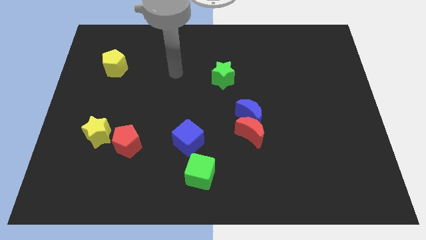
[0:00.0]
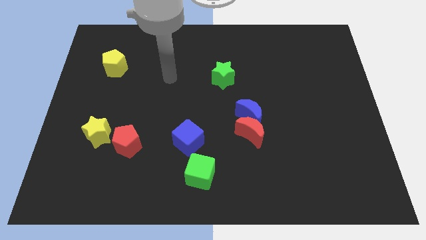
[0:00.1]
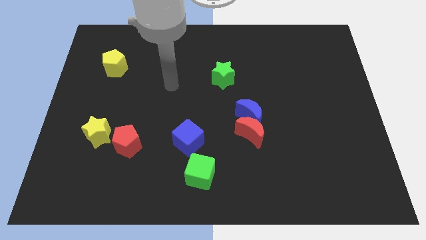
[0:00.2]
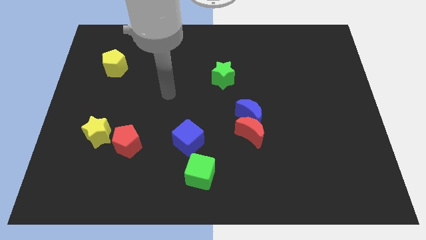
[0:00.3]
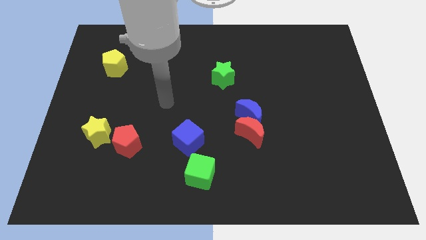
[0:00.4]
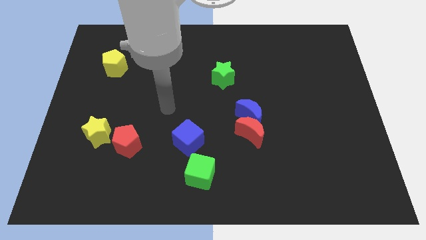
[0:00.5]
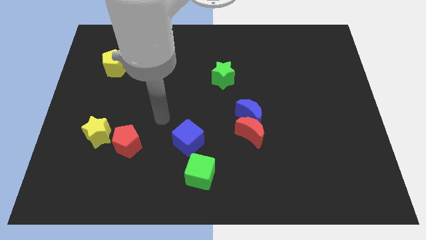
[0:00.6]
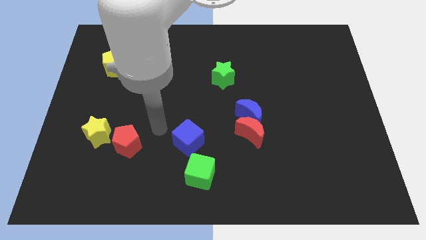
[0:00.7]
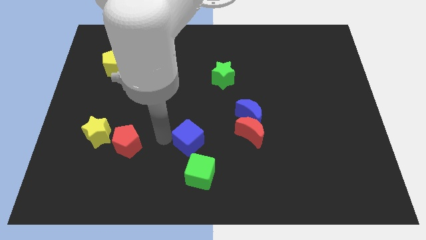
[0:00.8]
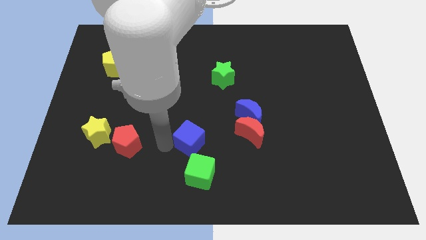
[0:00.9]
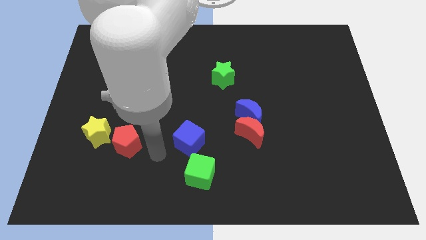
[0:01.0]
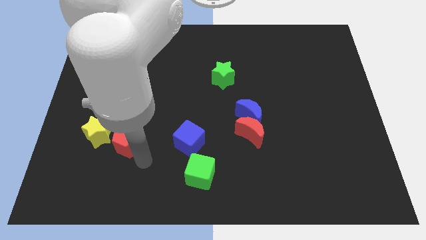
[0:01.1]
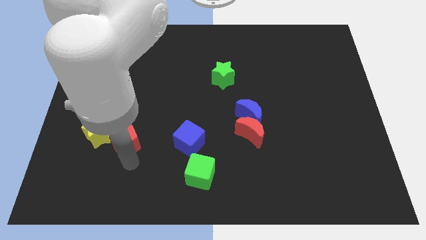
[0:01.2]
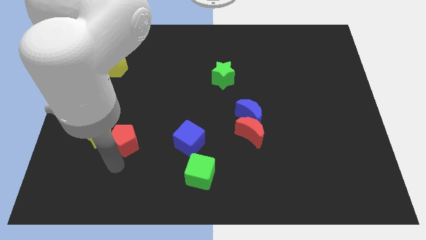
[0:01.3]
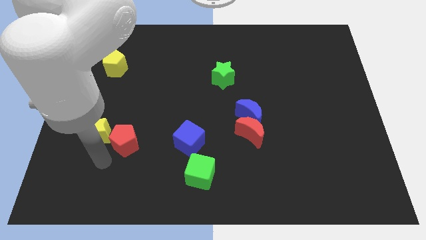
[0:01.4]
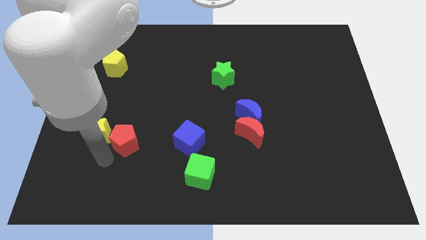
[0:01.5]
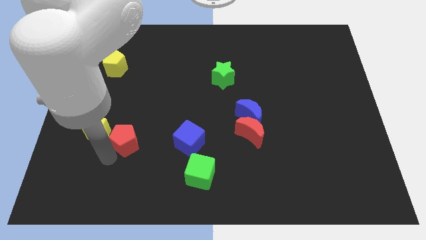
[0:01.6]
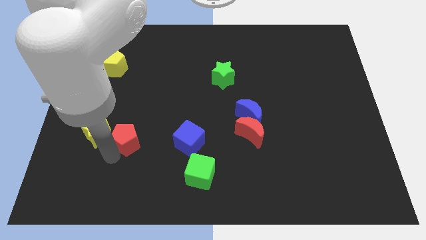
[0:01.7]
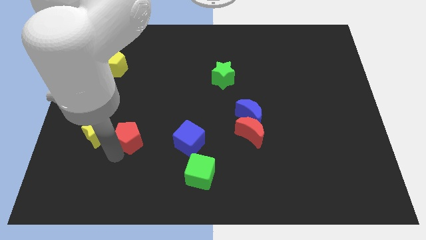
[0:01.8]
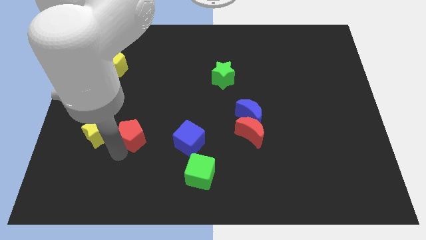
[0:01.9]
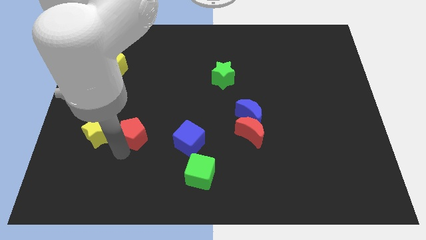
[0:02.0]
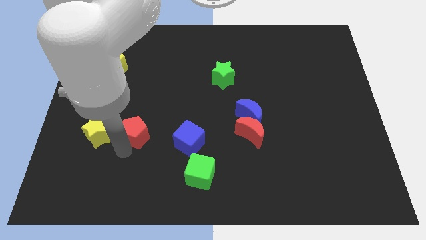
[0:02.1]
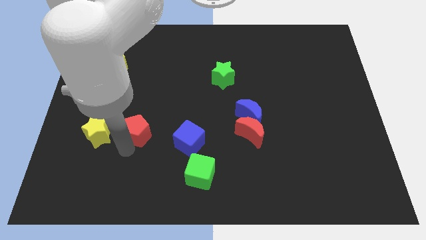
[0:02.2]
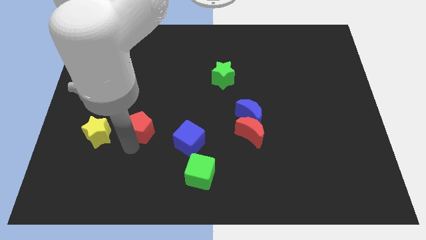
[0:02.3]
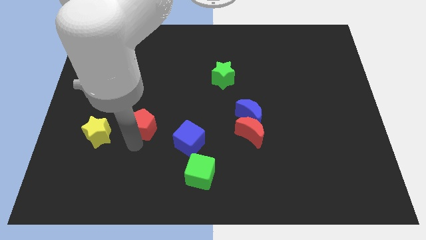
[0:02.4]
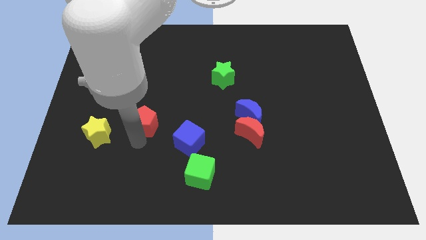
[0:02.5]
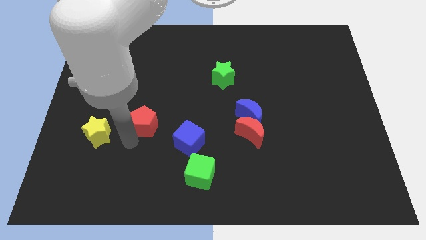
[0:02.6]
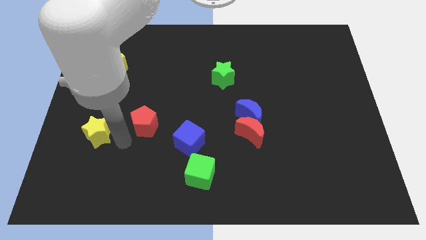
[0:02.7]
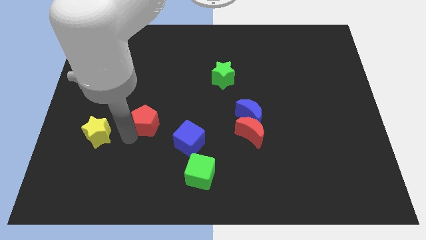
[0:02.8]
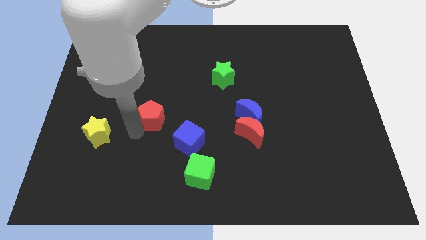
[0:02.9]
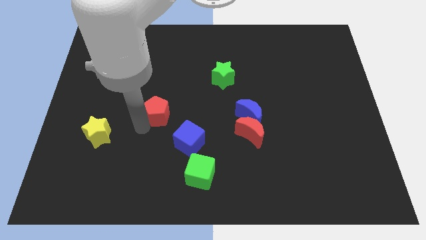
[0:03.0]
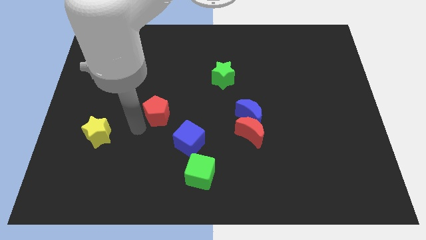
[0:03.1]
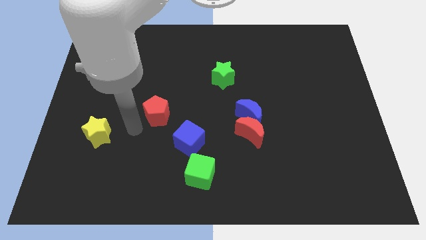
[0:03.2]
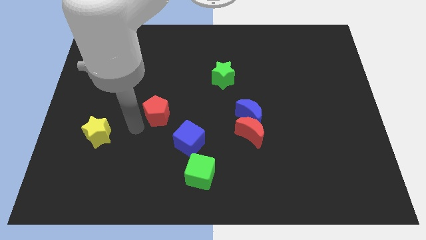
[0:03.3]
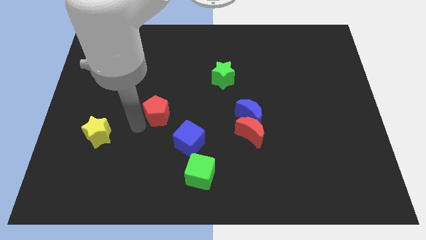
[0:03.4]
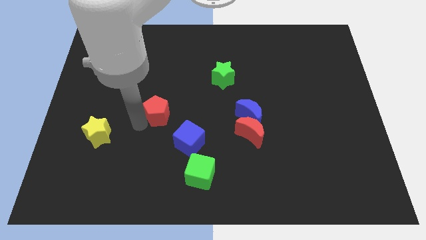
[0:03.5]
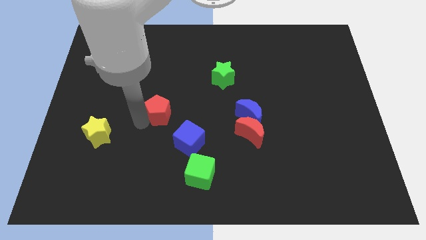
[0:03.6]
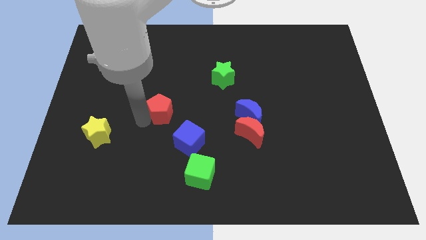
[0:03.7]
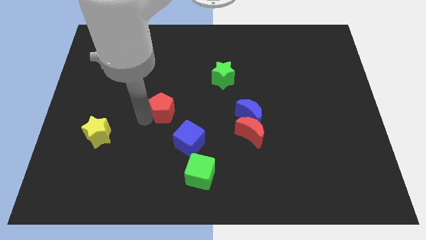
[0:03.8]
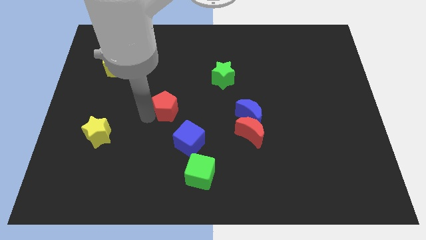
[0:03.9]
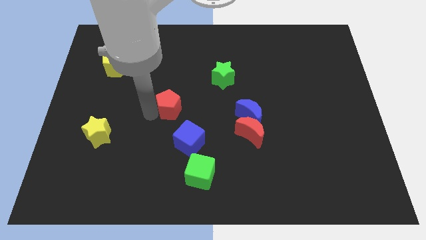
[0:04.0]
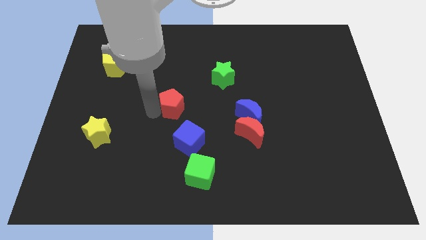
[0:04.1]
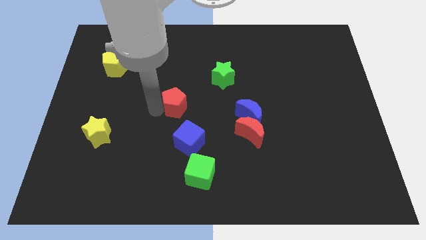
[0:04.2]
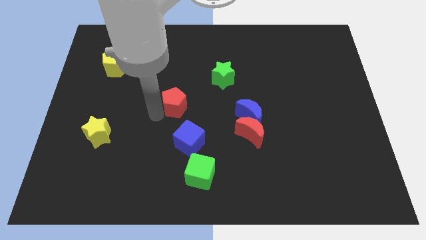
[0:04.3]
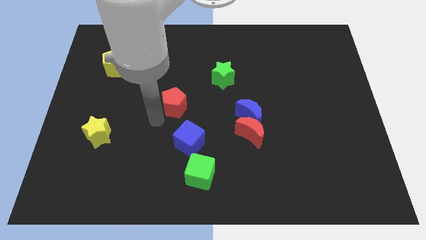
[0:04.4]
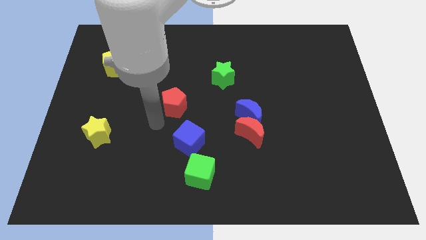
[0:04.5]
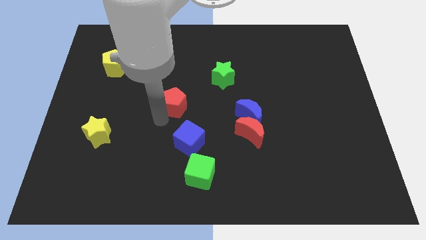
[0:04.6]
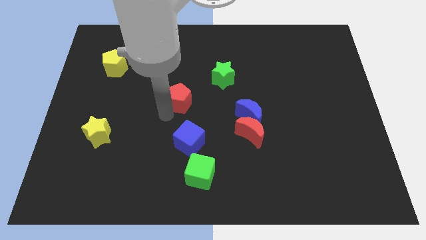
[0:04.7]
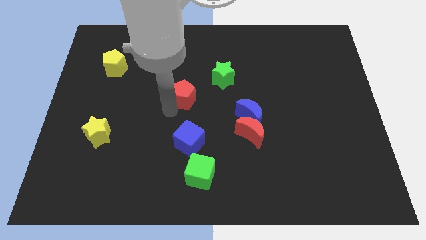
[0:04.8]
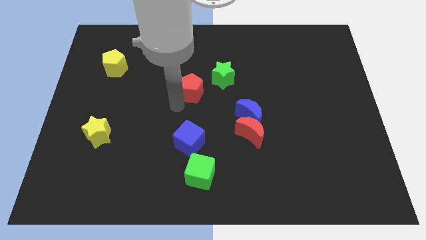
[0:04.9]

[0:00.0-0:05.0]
slide the red pentagon up and right diagonally

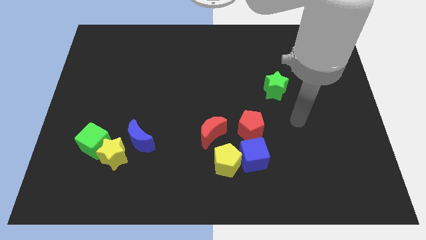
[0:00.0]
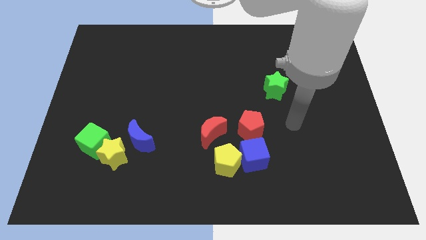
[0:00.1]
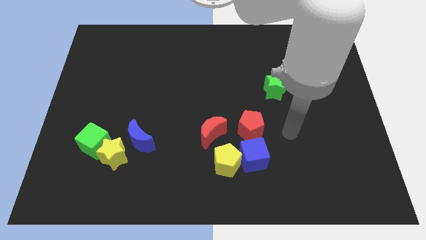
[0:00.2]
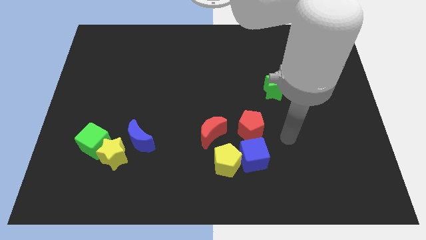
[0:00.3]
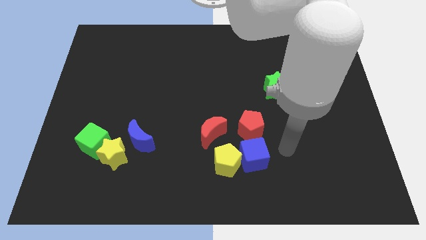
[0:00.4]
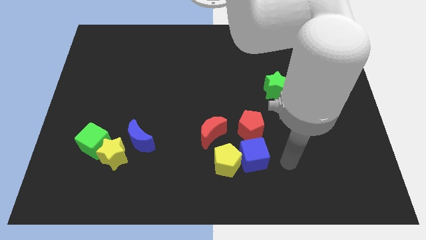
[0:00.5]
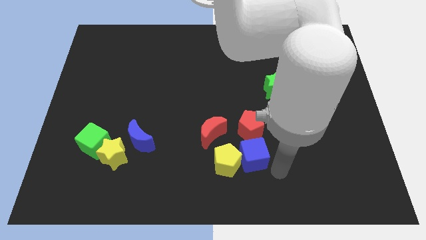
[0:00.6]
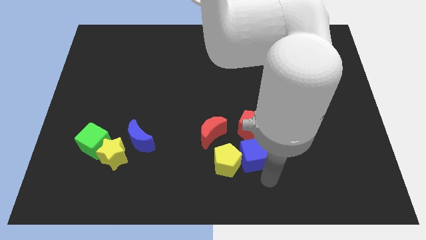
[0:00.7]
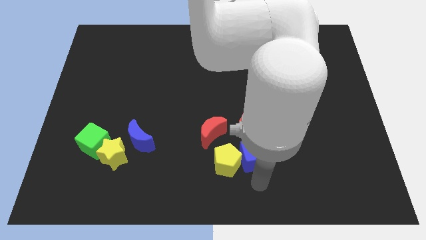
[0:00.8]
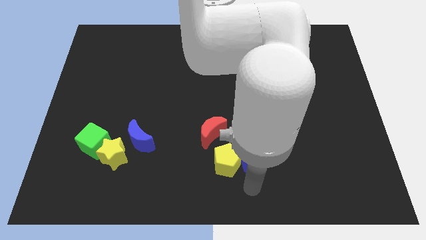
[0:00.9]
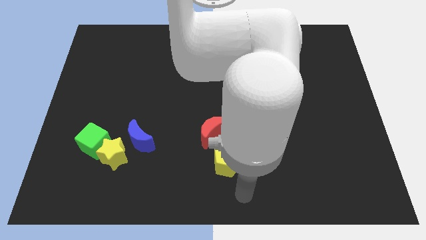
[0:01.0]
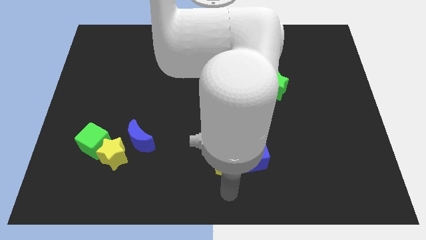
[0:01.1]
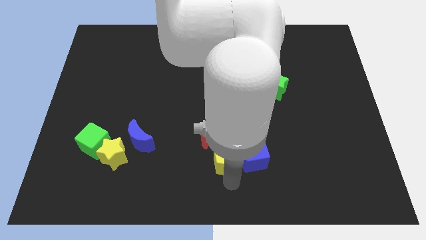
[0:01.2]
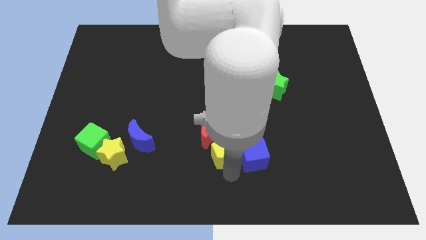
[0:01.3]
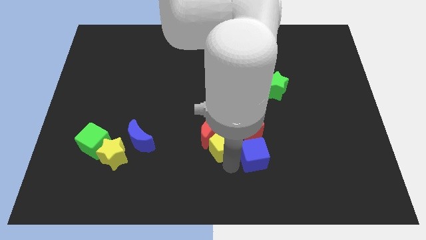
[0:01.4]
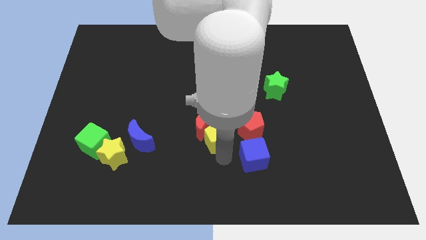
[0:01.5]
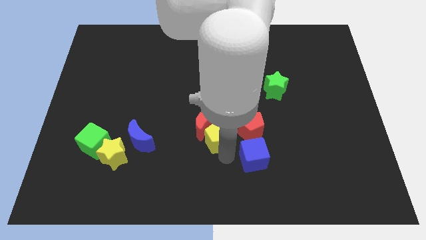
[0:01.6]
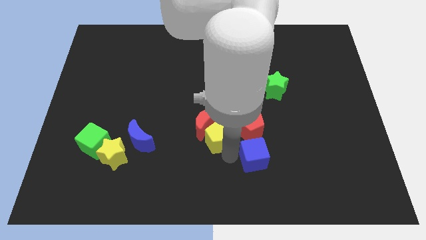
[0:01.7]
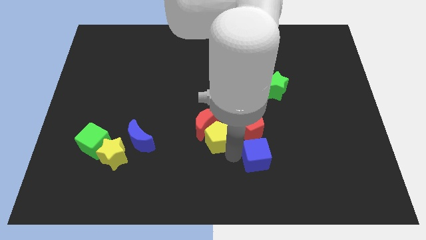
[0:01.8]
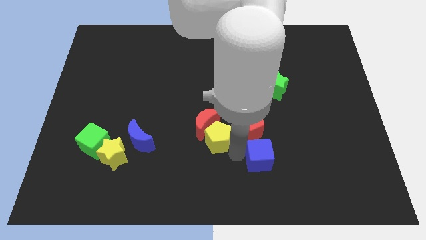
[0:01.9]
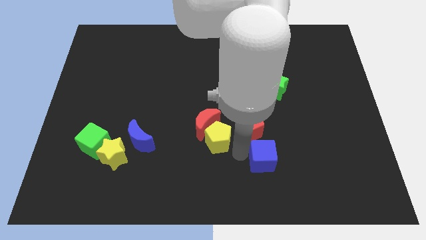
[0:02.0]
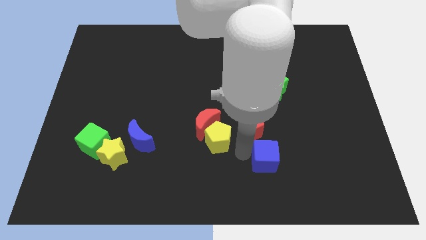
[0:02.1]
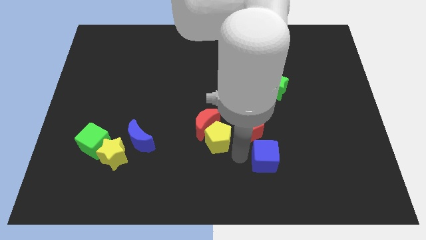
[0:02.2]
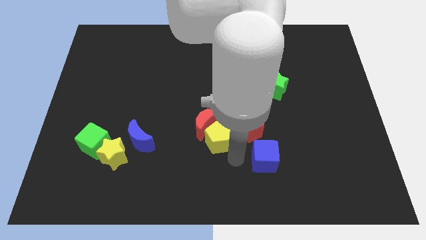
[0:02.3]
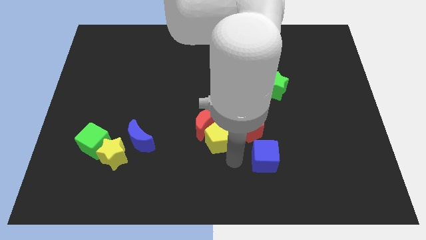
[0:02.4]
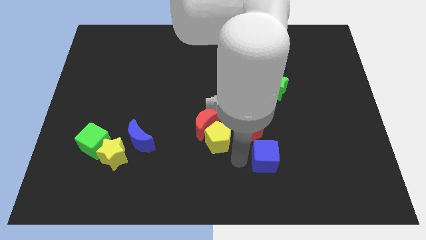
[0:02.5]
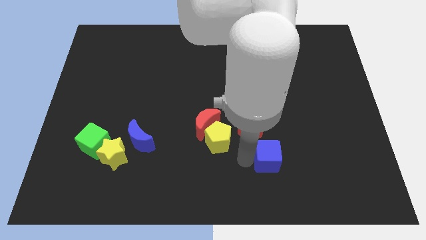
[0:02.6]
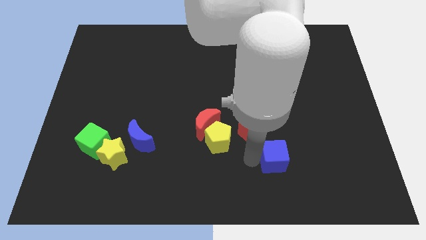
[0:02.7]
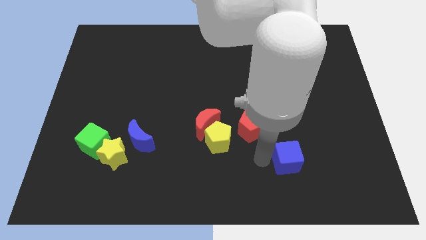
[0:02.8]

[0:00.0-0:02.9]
slide the blue cube to the right a bit
